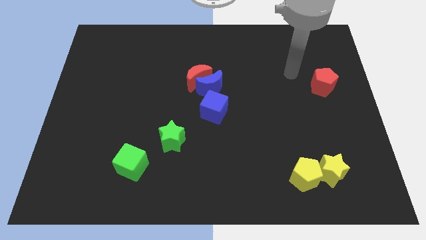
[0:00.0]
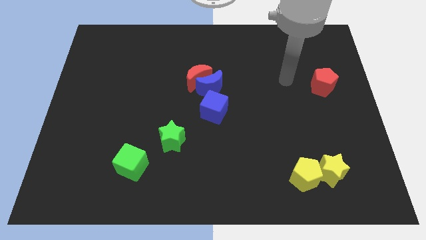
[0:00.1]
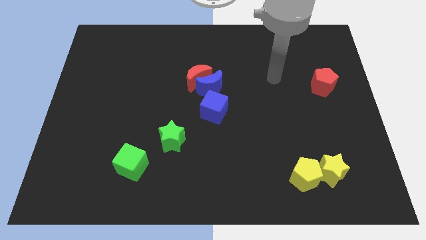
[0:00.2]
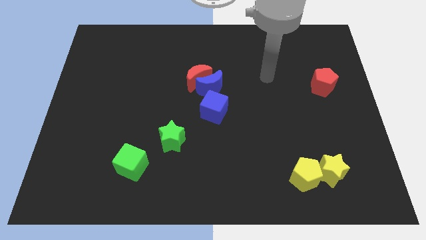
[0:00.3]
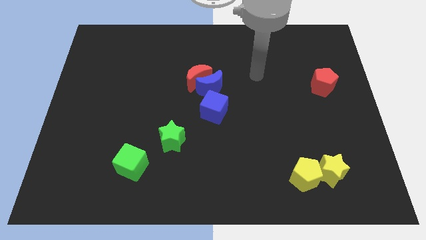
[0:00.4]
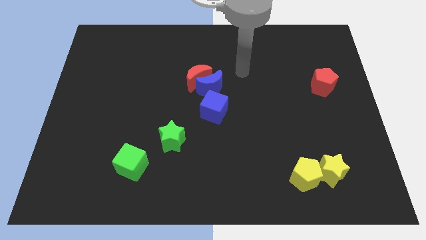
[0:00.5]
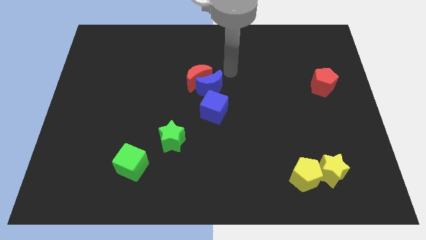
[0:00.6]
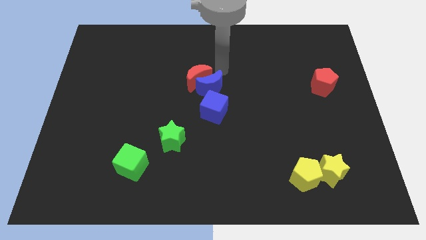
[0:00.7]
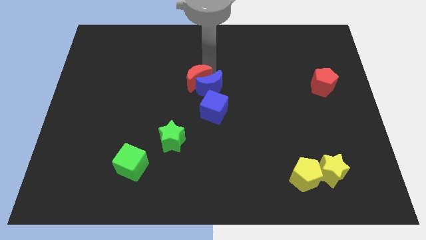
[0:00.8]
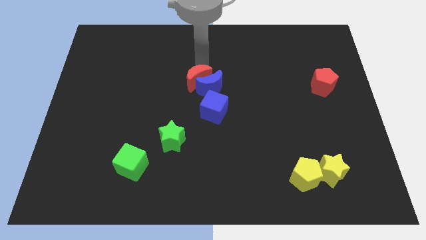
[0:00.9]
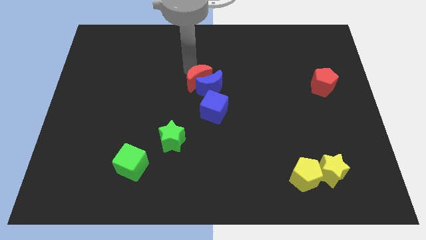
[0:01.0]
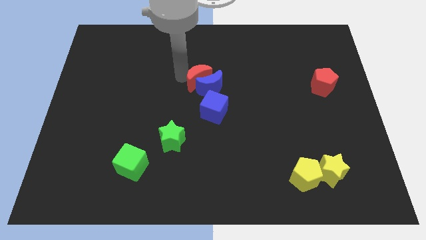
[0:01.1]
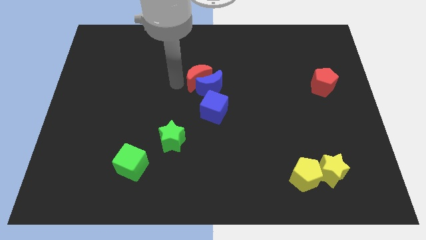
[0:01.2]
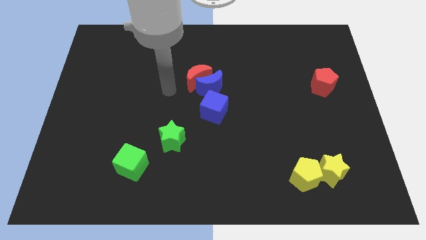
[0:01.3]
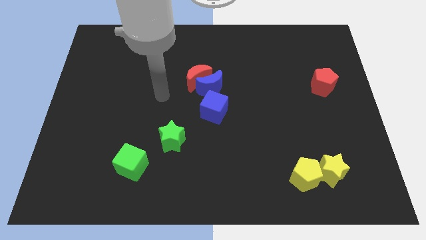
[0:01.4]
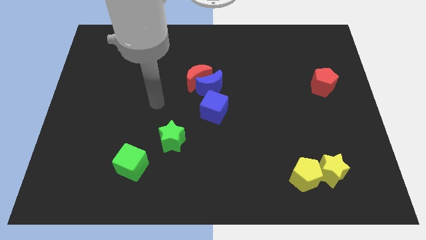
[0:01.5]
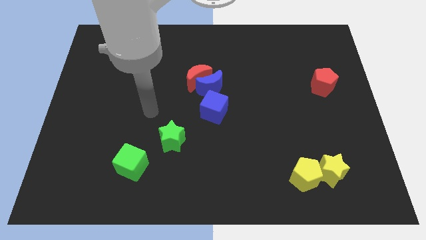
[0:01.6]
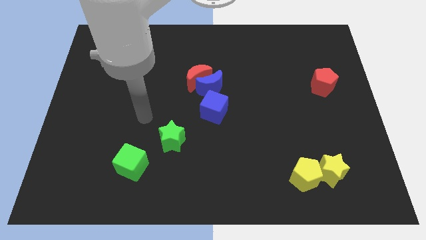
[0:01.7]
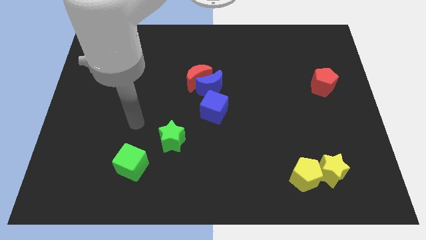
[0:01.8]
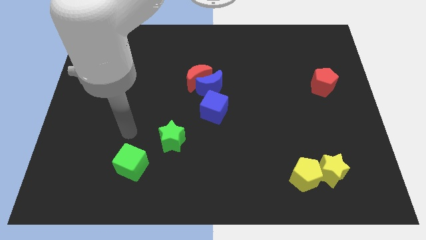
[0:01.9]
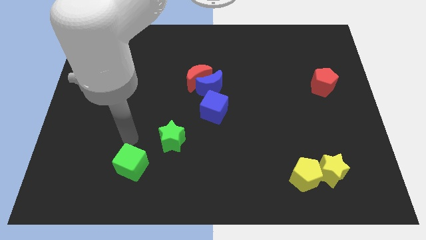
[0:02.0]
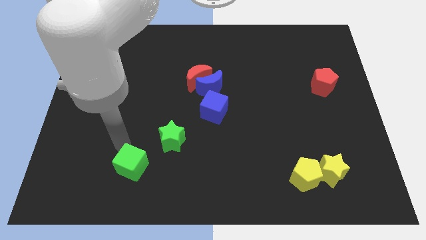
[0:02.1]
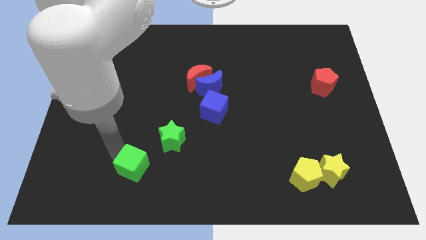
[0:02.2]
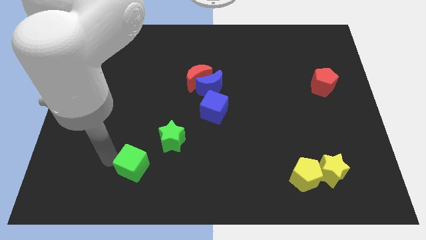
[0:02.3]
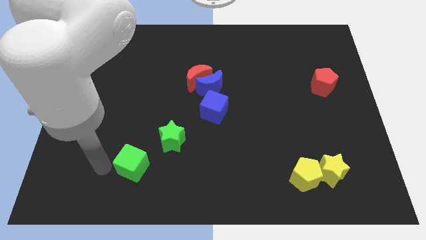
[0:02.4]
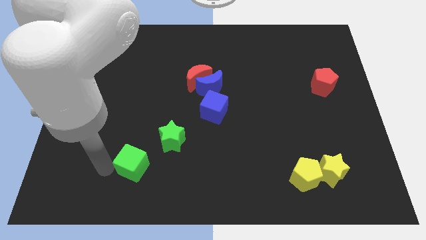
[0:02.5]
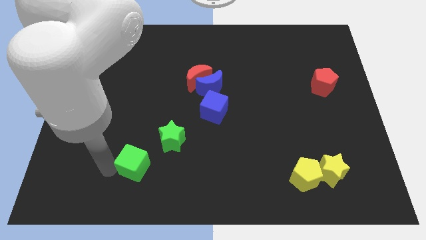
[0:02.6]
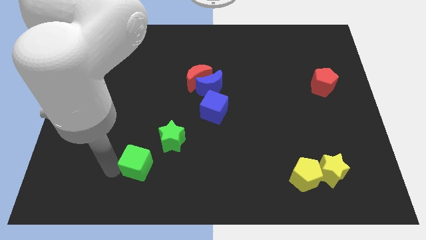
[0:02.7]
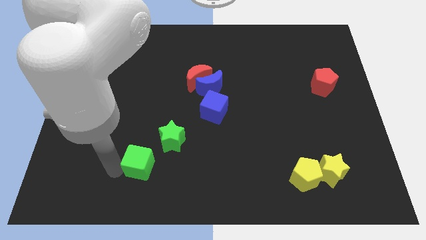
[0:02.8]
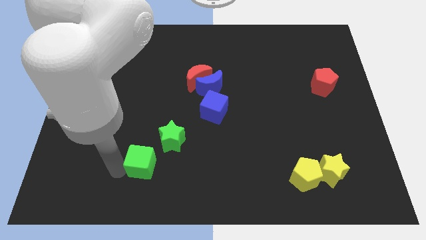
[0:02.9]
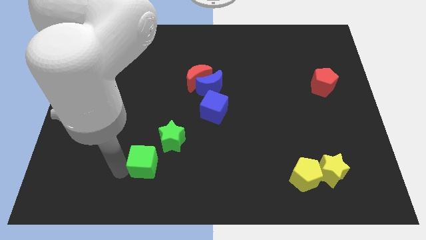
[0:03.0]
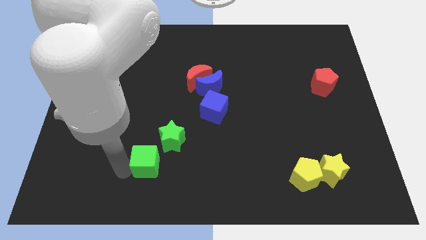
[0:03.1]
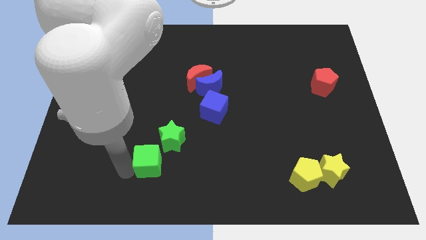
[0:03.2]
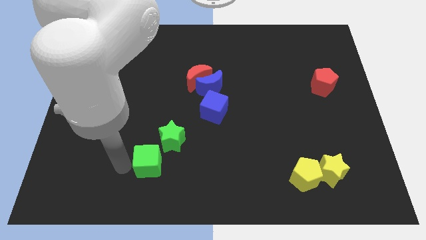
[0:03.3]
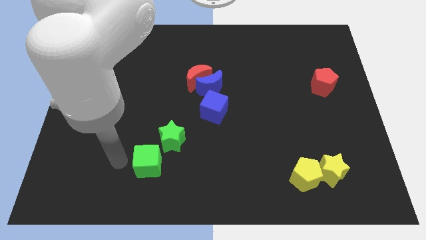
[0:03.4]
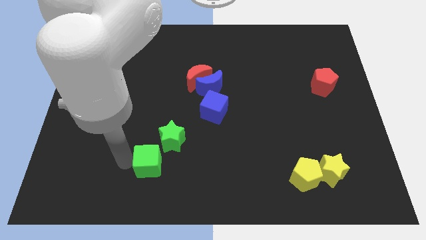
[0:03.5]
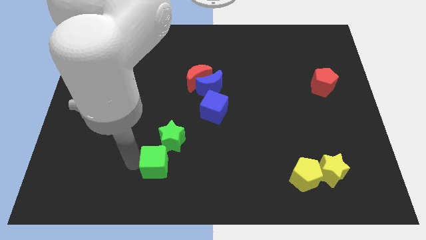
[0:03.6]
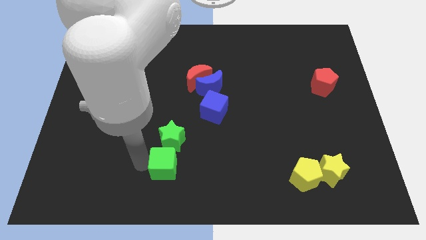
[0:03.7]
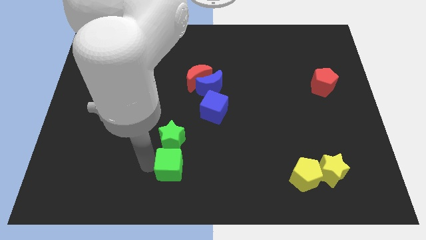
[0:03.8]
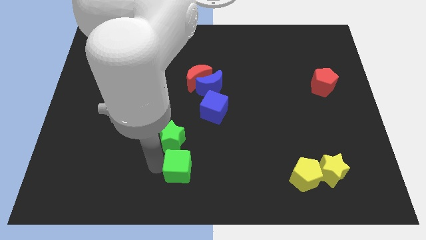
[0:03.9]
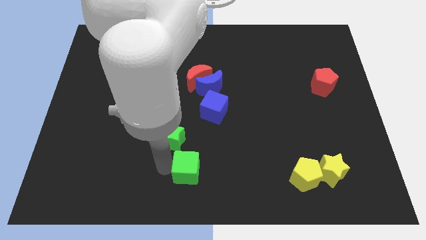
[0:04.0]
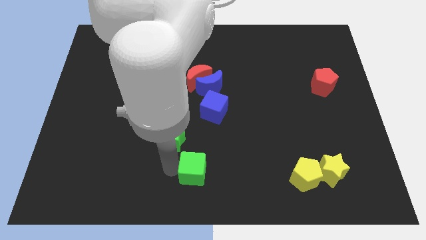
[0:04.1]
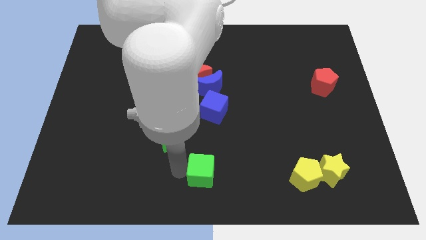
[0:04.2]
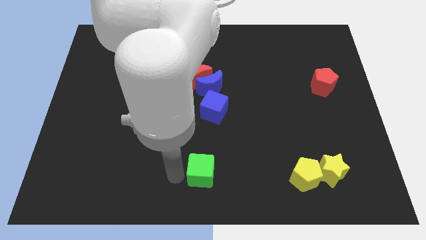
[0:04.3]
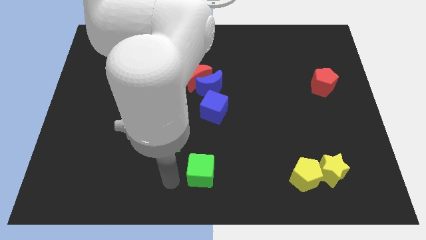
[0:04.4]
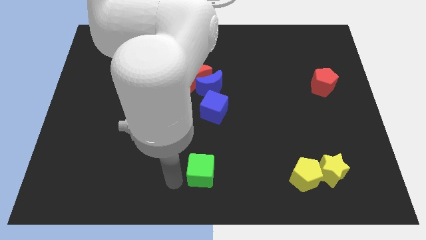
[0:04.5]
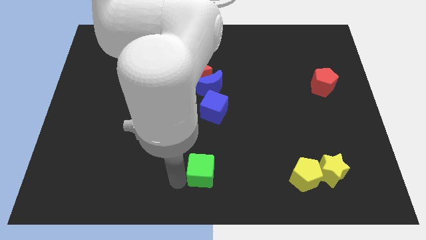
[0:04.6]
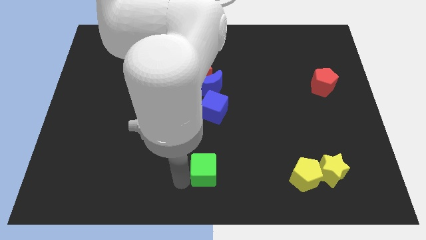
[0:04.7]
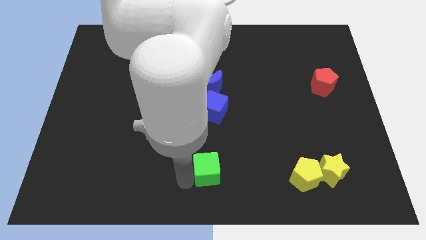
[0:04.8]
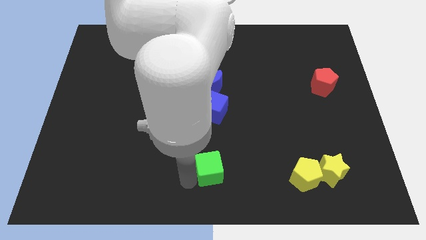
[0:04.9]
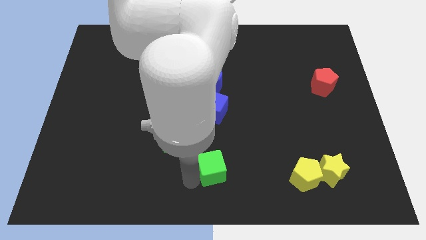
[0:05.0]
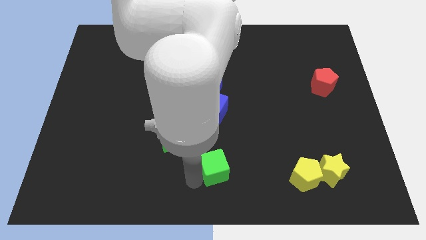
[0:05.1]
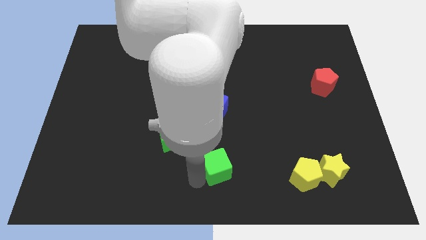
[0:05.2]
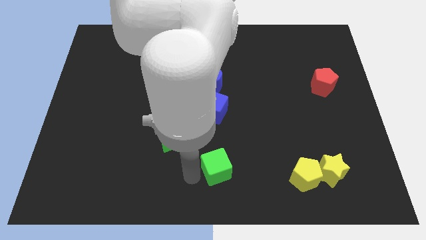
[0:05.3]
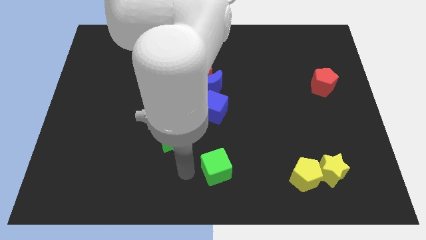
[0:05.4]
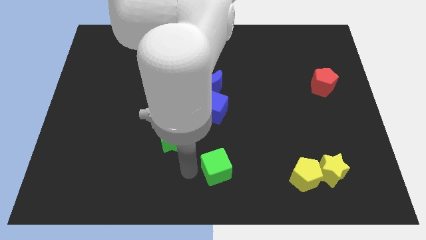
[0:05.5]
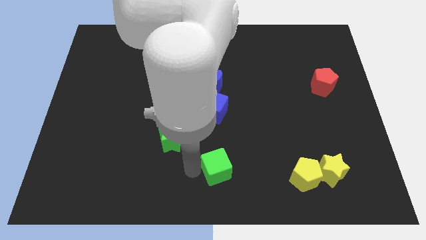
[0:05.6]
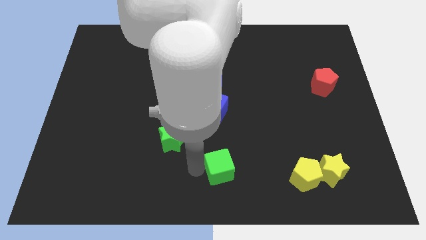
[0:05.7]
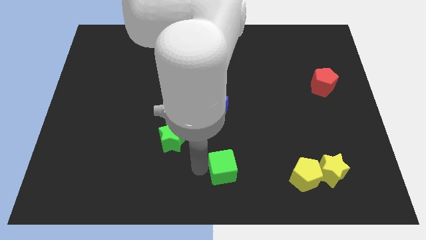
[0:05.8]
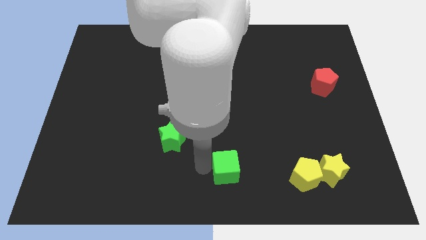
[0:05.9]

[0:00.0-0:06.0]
push the green cube right

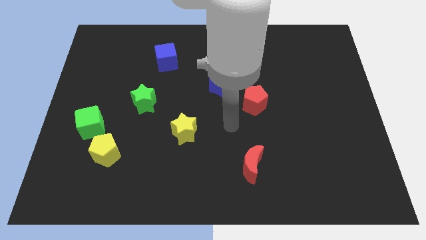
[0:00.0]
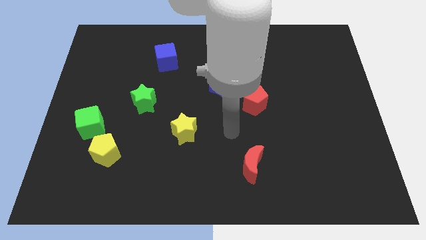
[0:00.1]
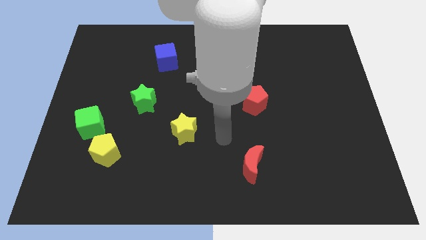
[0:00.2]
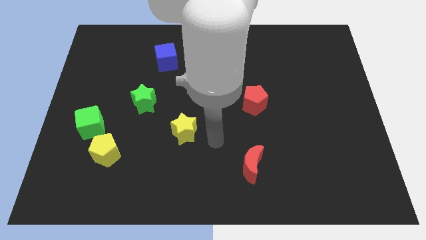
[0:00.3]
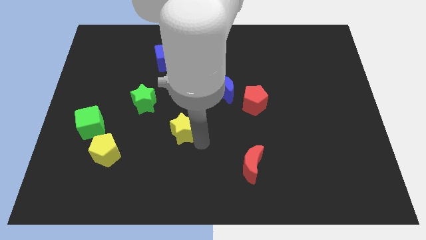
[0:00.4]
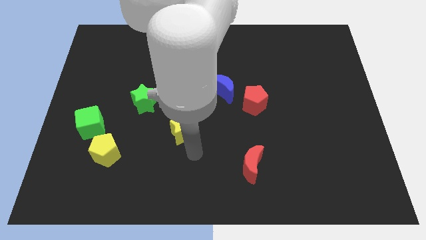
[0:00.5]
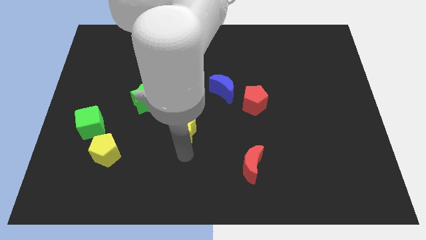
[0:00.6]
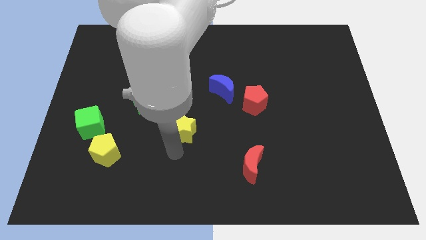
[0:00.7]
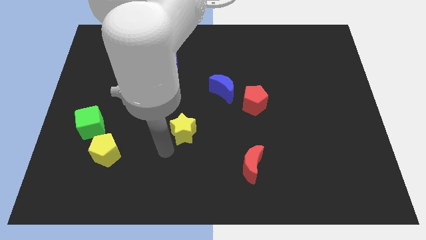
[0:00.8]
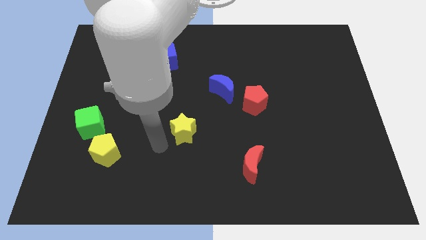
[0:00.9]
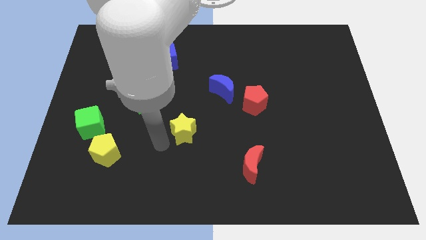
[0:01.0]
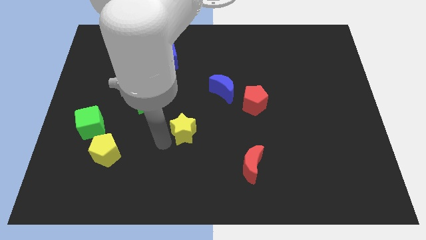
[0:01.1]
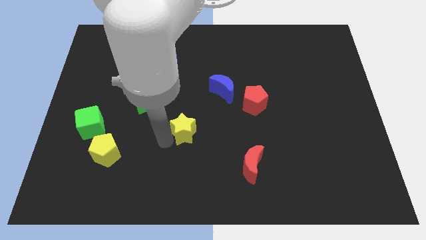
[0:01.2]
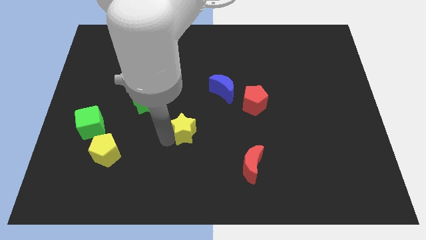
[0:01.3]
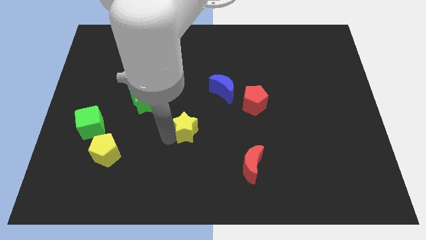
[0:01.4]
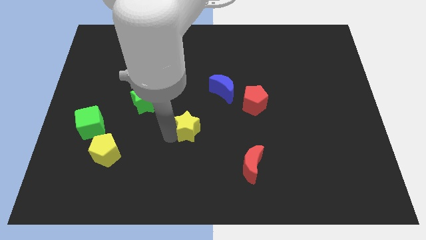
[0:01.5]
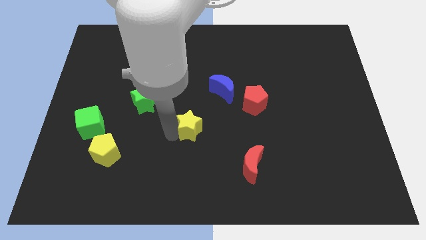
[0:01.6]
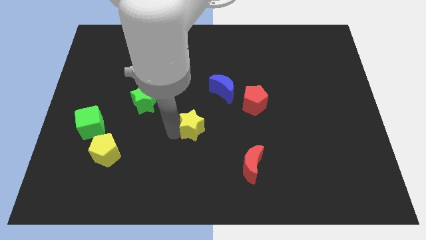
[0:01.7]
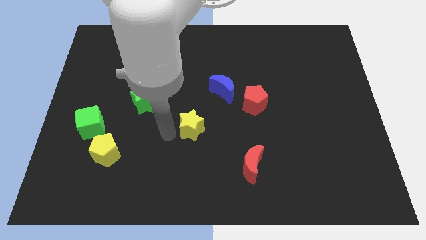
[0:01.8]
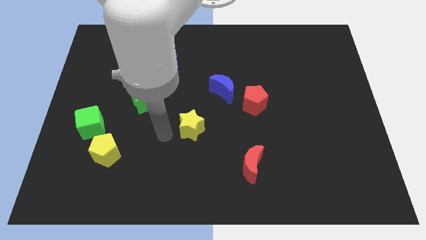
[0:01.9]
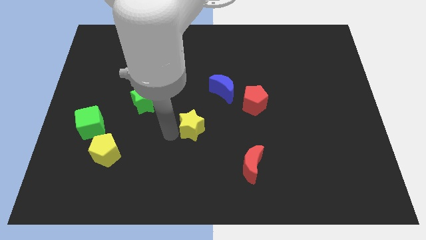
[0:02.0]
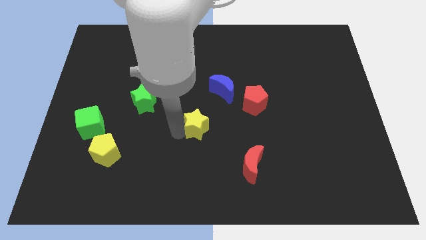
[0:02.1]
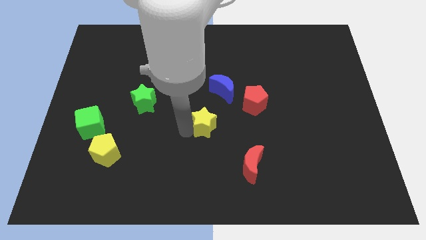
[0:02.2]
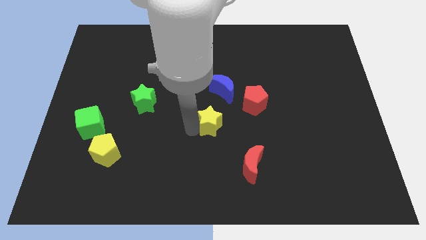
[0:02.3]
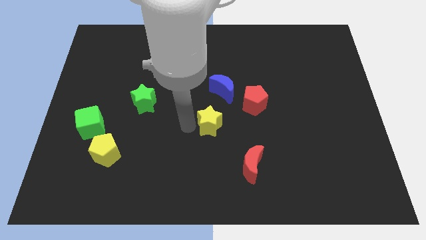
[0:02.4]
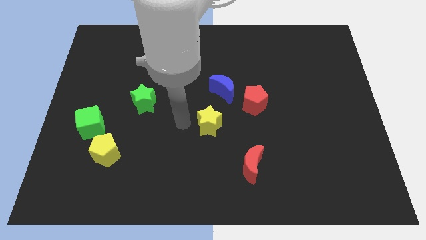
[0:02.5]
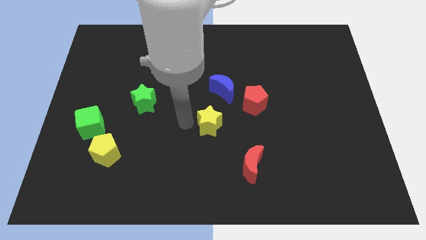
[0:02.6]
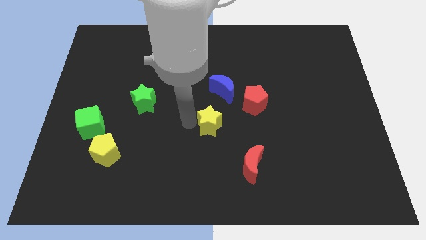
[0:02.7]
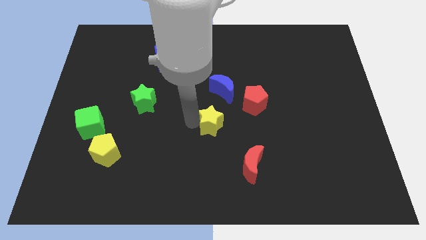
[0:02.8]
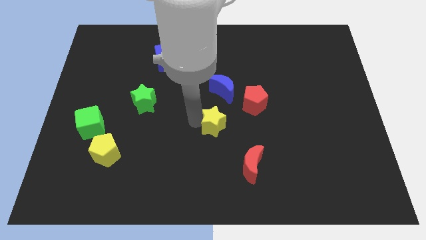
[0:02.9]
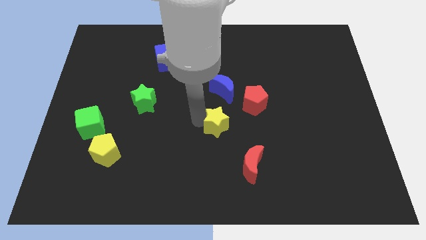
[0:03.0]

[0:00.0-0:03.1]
slide the yellow star slightly to the right
